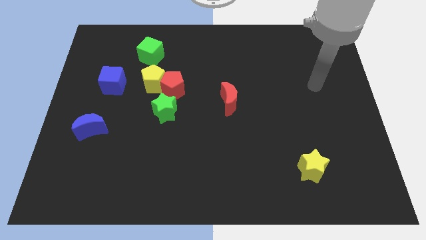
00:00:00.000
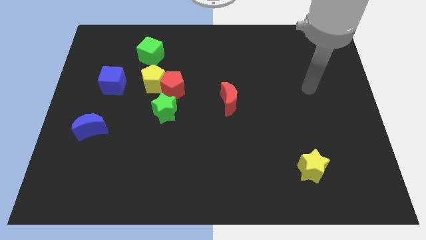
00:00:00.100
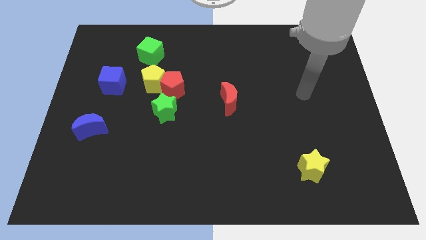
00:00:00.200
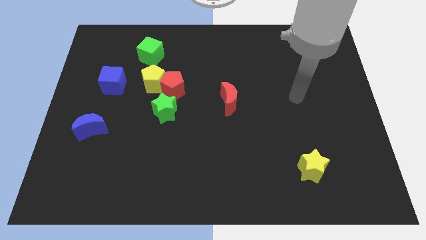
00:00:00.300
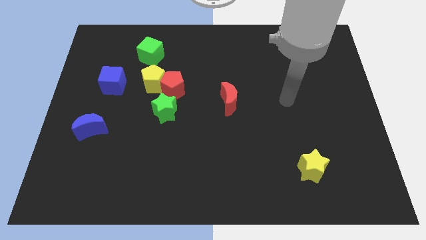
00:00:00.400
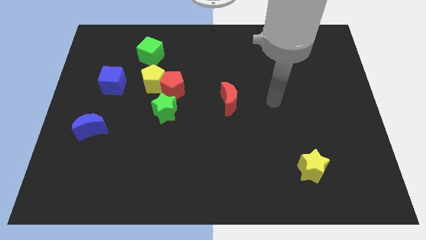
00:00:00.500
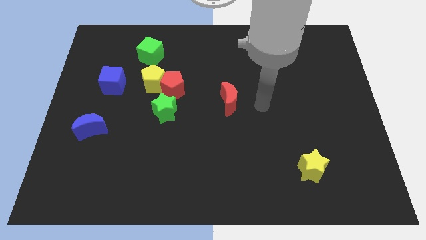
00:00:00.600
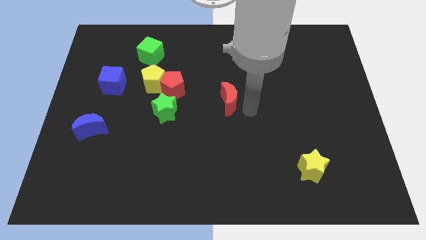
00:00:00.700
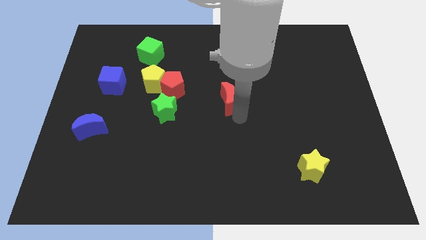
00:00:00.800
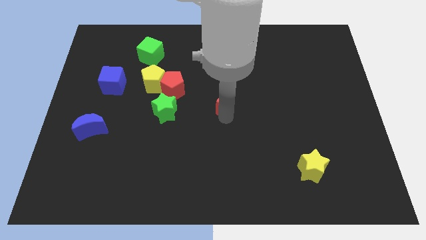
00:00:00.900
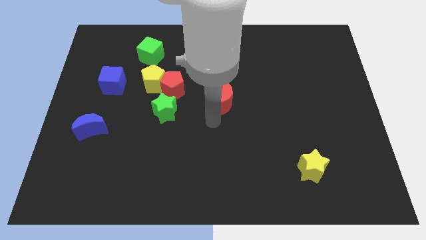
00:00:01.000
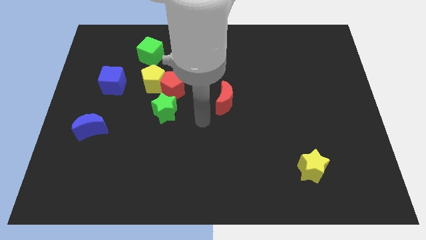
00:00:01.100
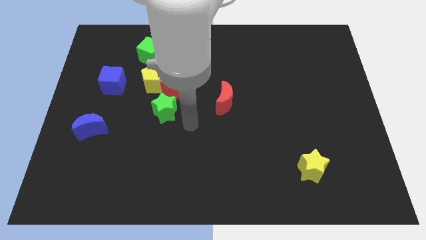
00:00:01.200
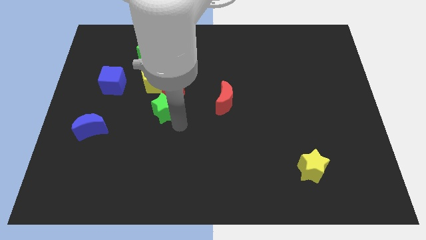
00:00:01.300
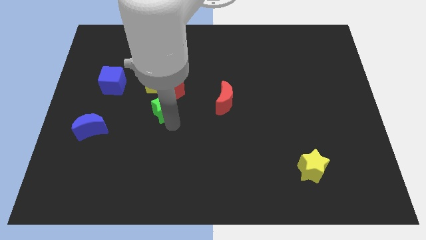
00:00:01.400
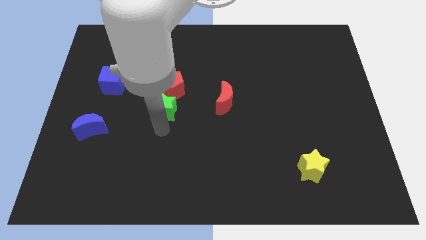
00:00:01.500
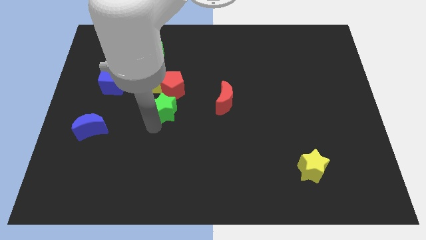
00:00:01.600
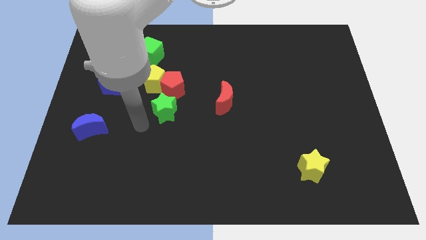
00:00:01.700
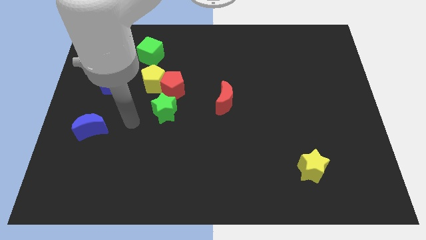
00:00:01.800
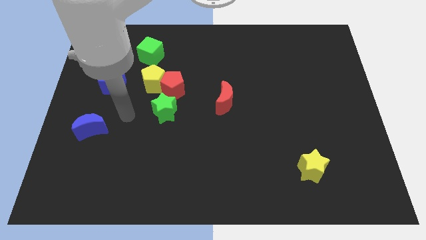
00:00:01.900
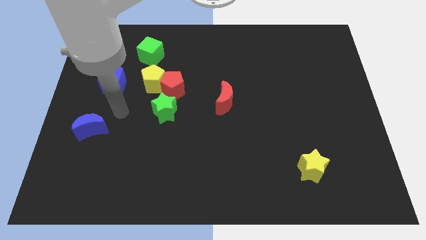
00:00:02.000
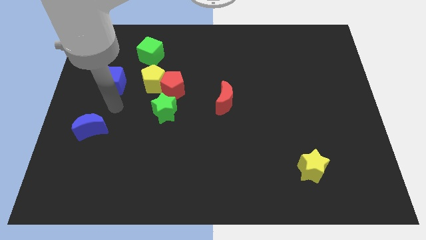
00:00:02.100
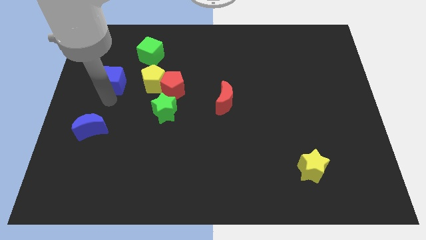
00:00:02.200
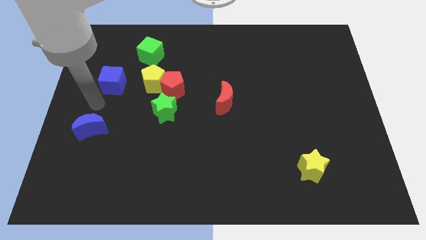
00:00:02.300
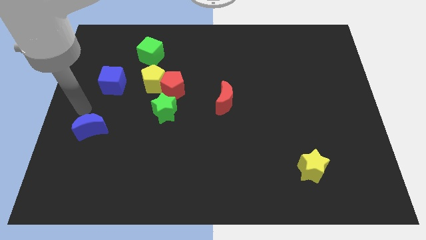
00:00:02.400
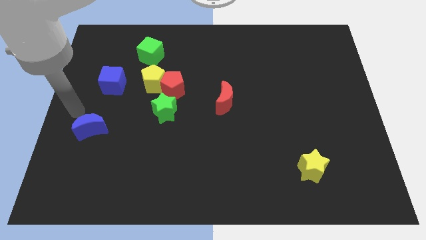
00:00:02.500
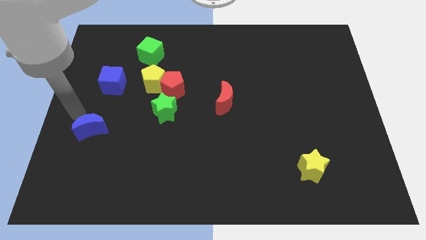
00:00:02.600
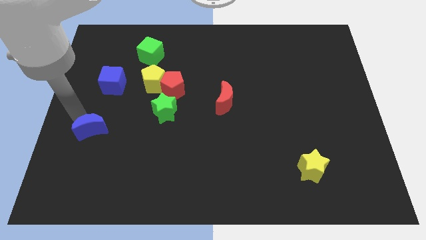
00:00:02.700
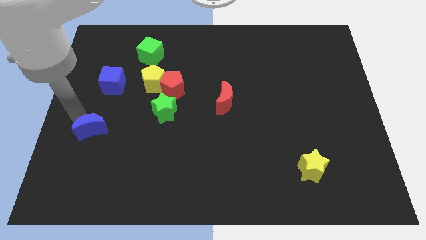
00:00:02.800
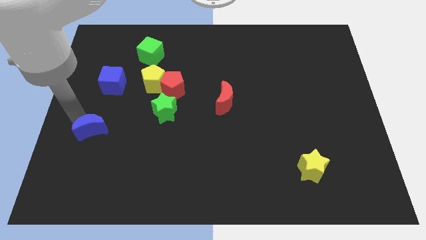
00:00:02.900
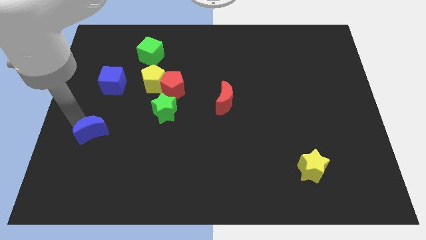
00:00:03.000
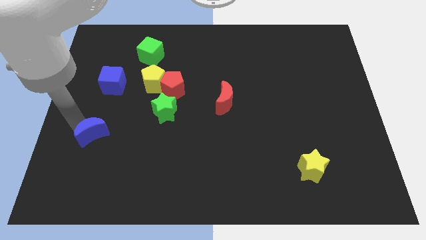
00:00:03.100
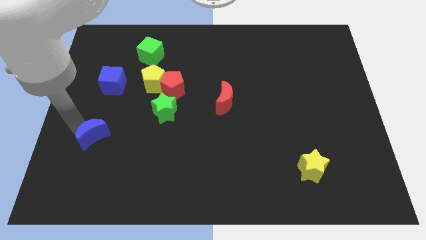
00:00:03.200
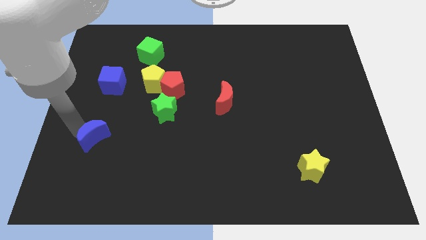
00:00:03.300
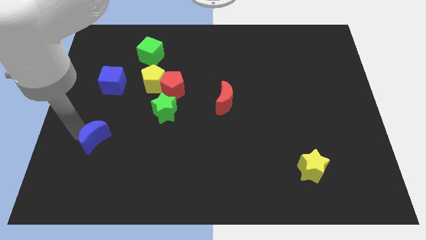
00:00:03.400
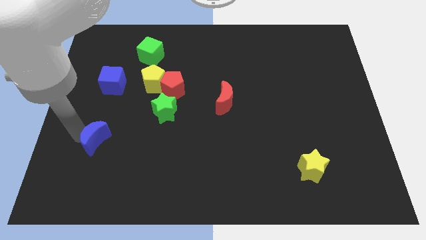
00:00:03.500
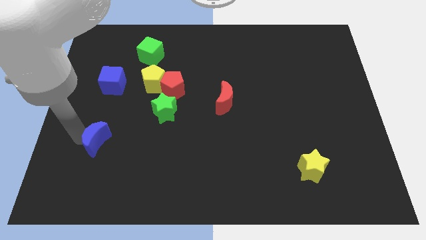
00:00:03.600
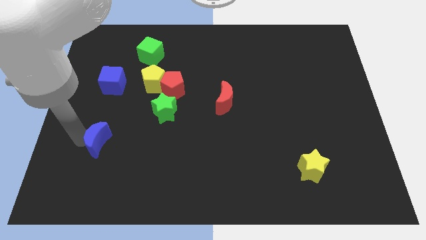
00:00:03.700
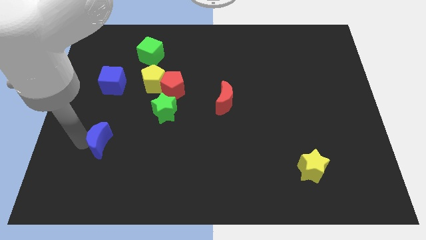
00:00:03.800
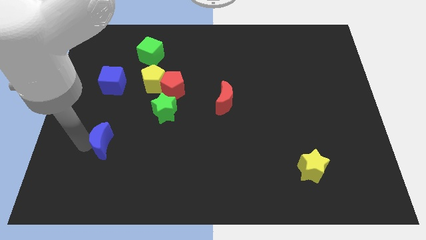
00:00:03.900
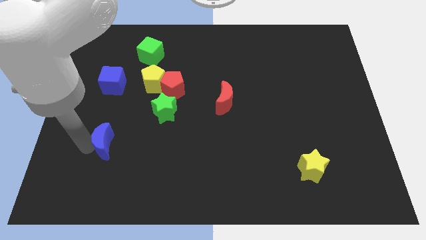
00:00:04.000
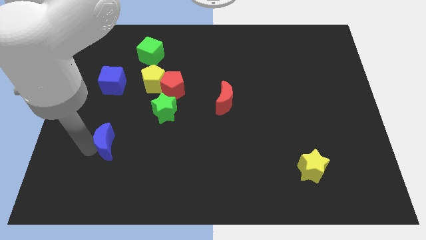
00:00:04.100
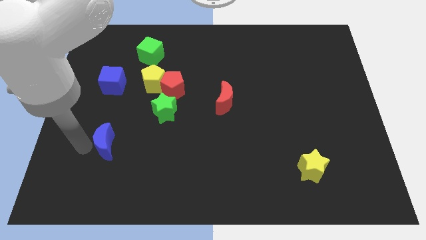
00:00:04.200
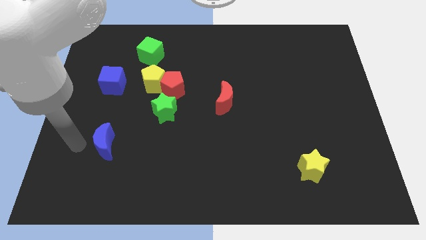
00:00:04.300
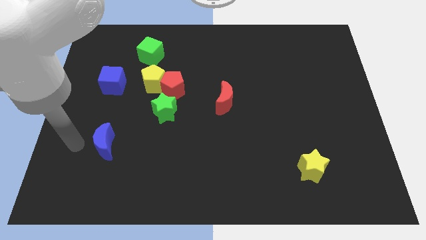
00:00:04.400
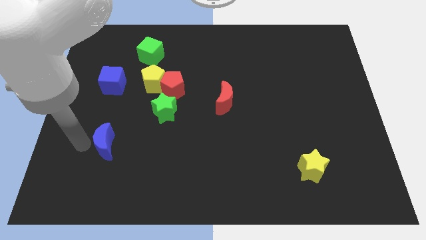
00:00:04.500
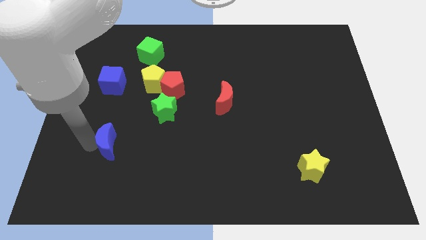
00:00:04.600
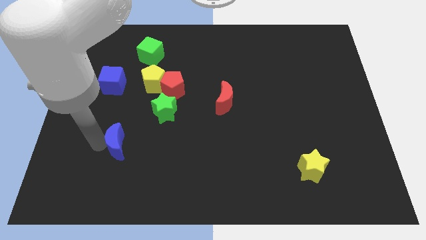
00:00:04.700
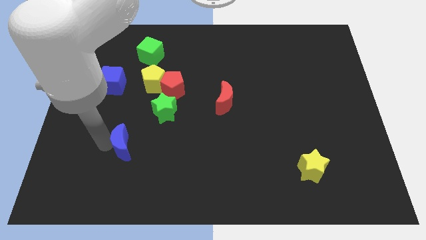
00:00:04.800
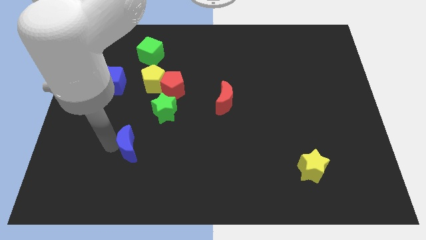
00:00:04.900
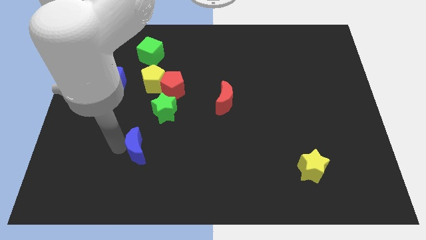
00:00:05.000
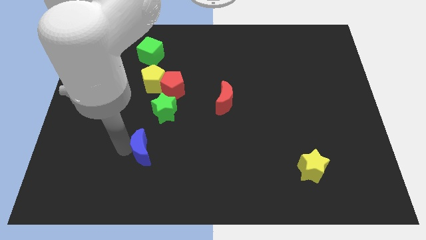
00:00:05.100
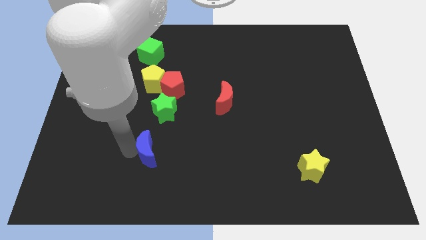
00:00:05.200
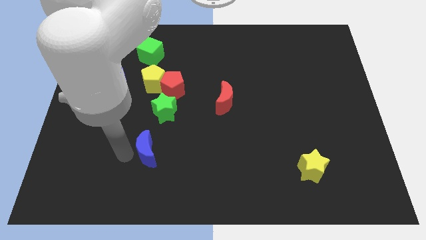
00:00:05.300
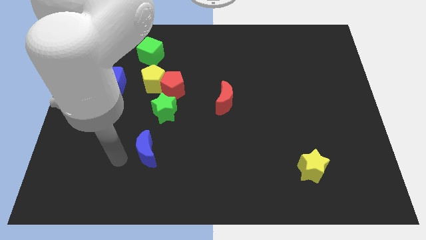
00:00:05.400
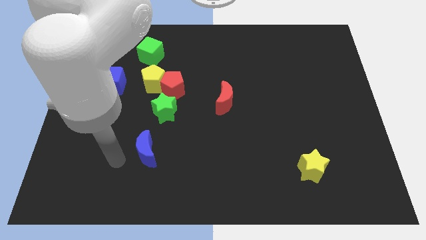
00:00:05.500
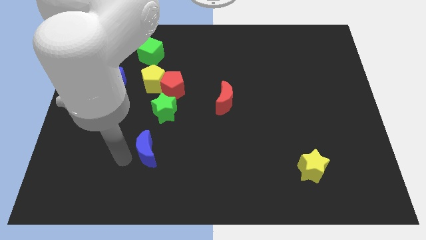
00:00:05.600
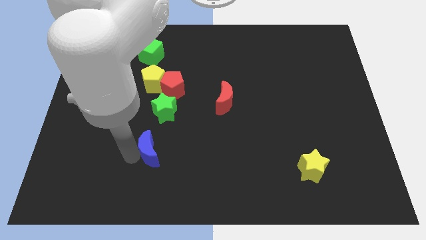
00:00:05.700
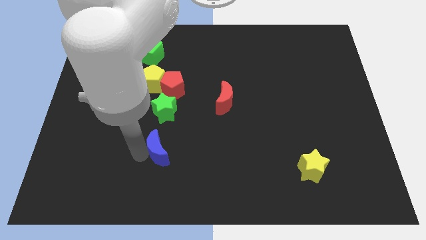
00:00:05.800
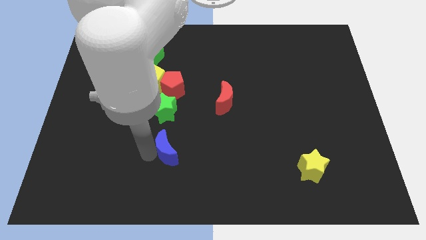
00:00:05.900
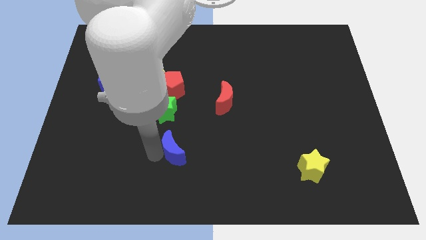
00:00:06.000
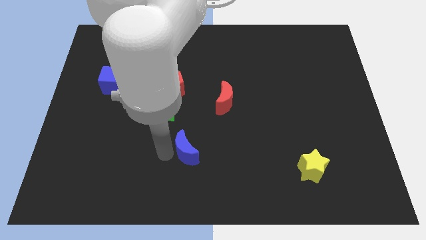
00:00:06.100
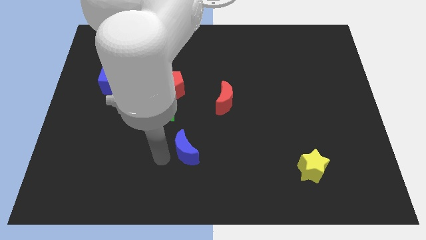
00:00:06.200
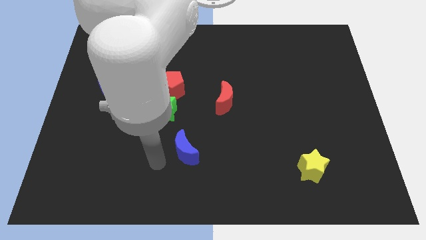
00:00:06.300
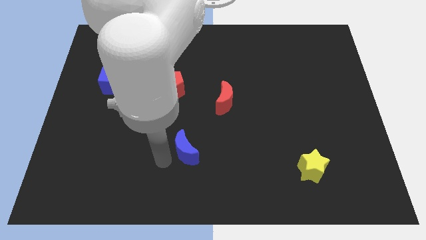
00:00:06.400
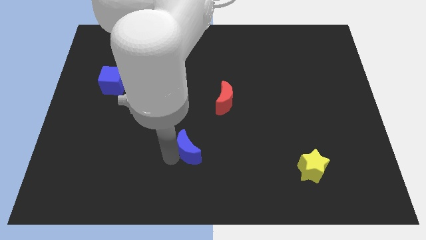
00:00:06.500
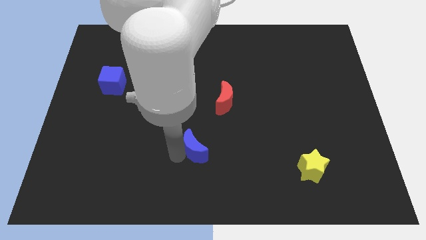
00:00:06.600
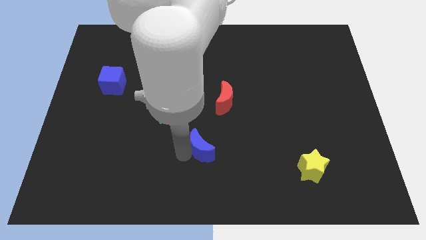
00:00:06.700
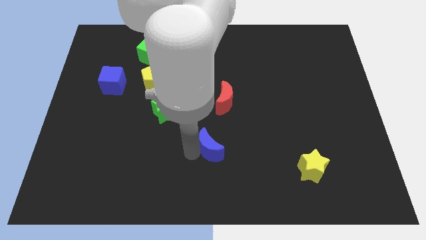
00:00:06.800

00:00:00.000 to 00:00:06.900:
slide the blue moon to the bottom side of the red moon
